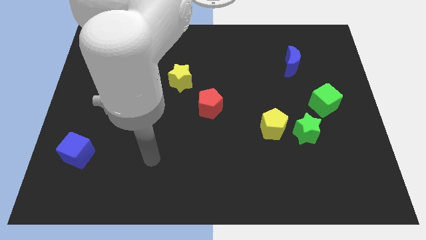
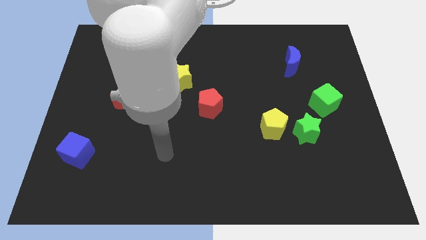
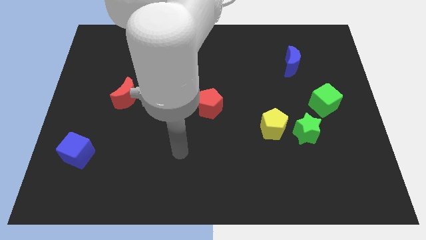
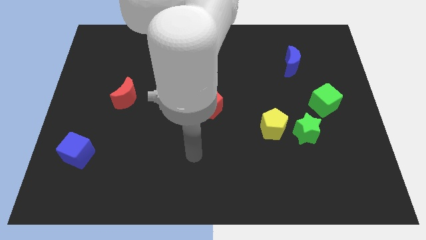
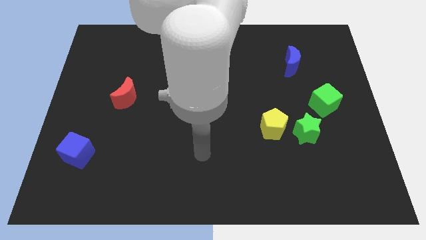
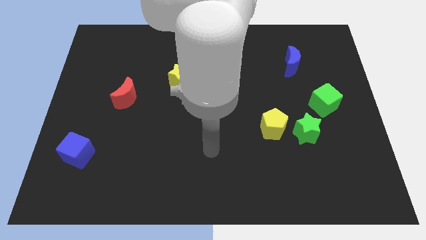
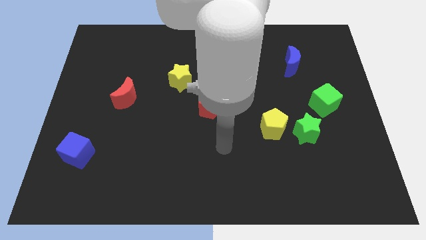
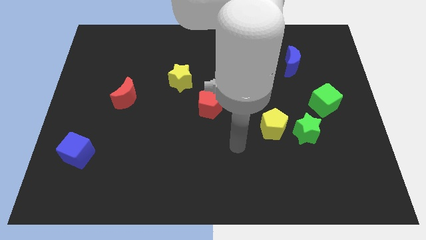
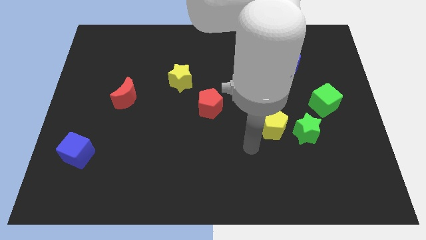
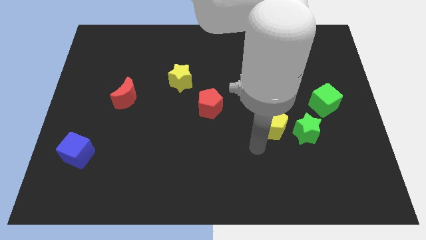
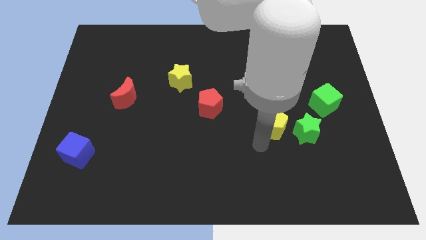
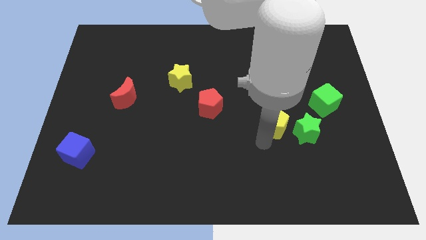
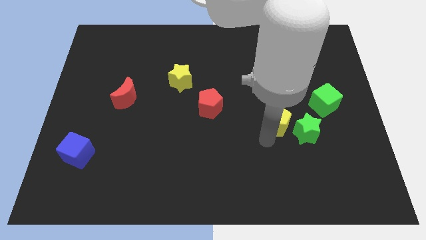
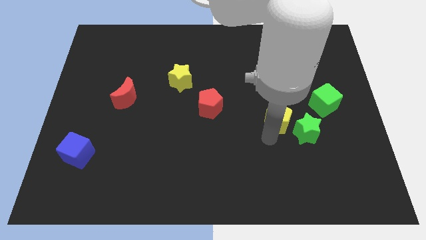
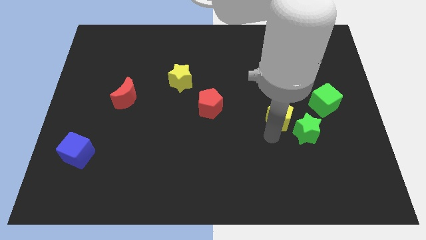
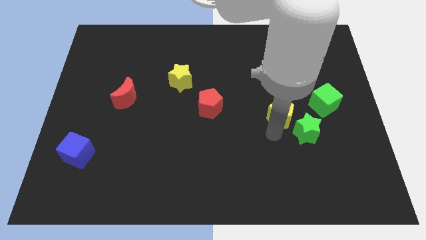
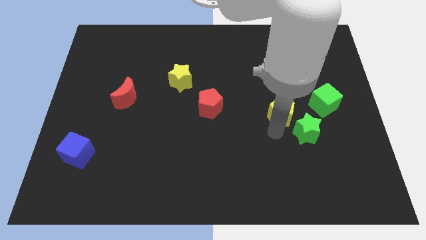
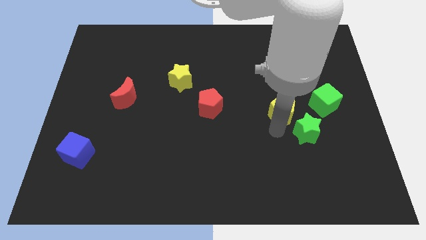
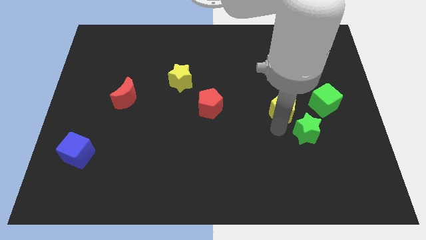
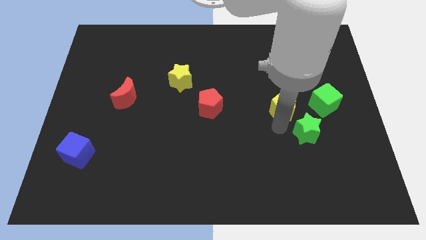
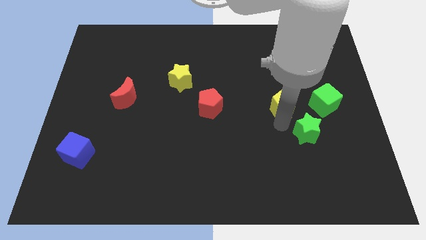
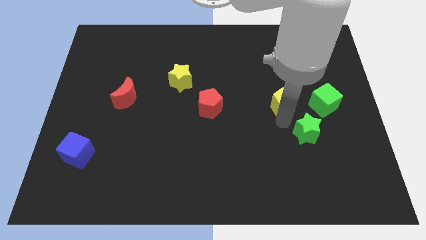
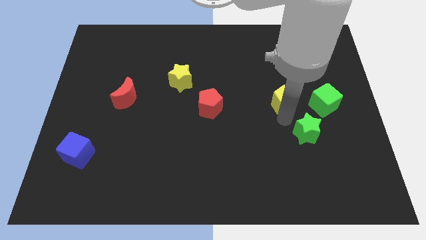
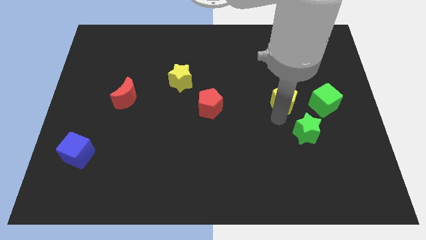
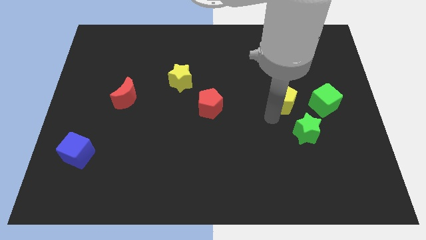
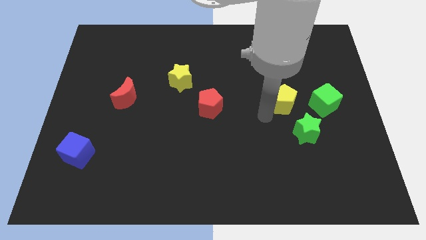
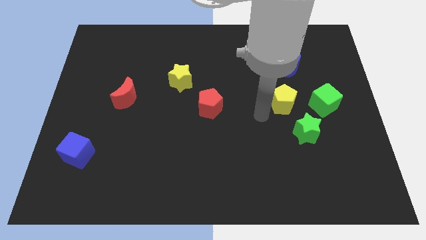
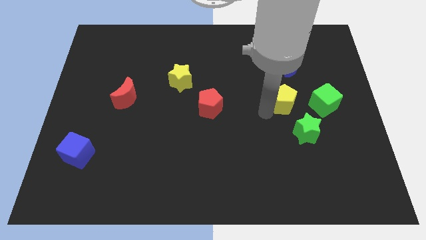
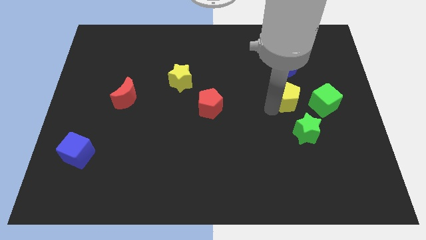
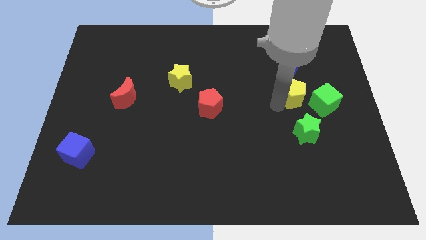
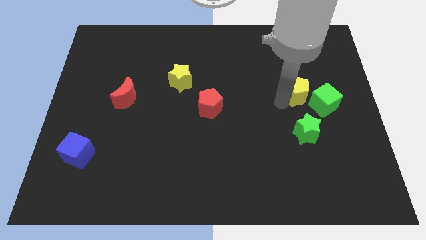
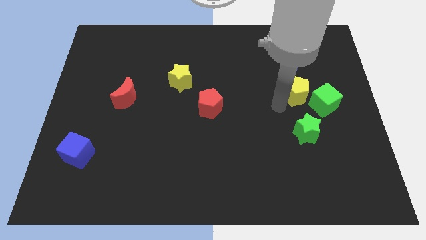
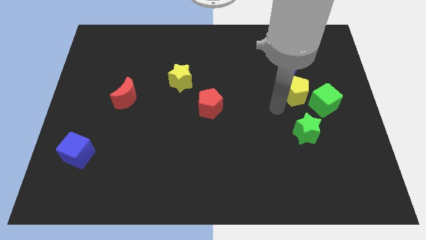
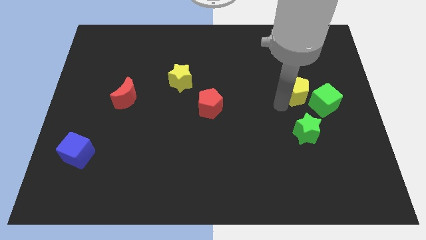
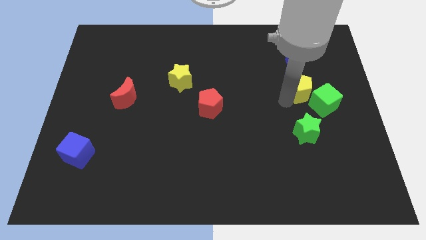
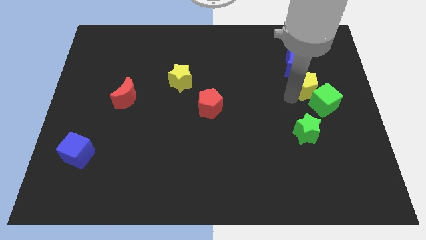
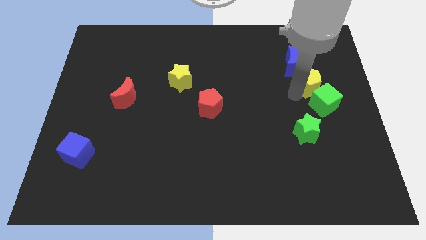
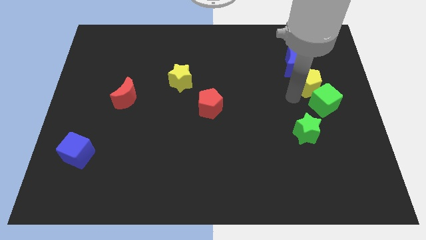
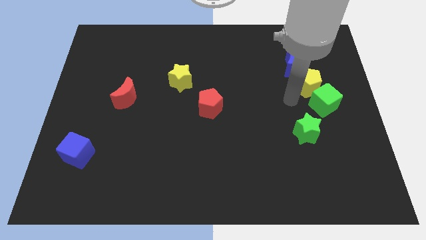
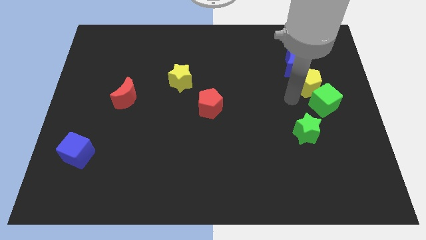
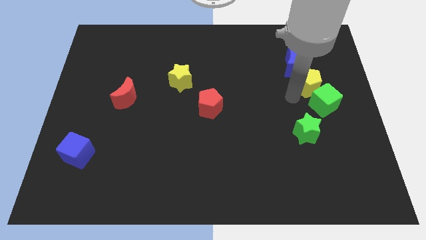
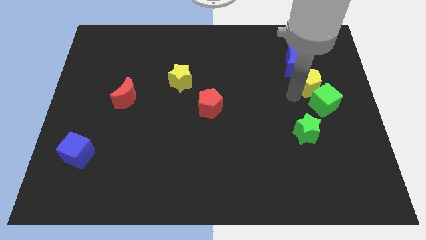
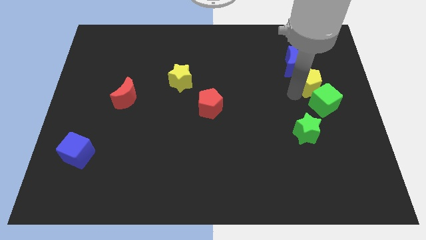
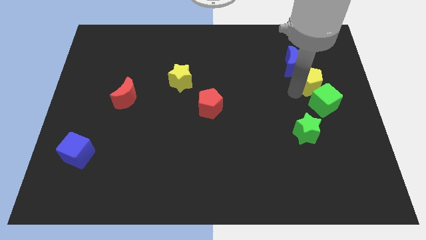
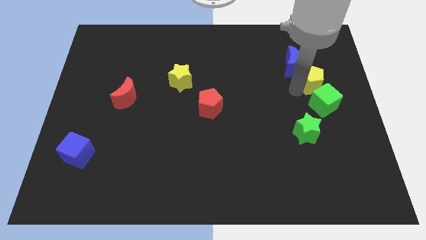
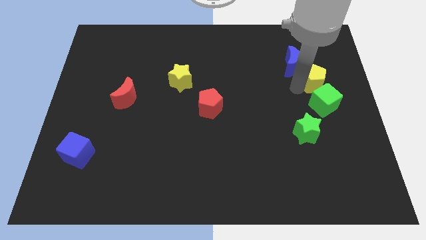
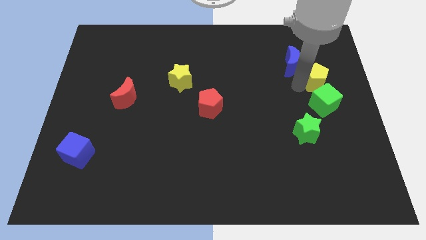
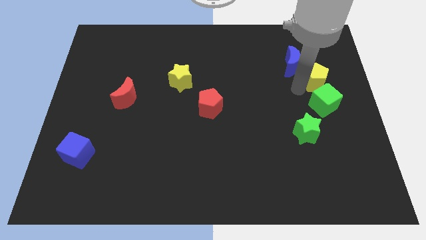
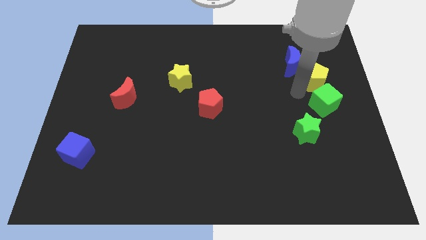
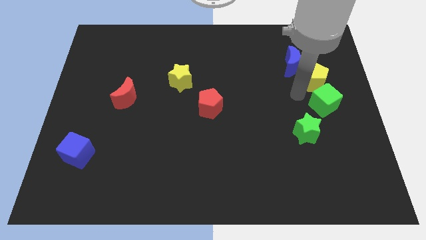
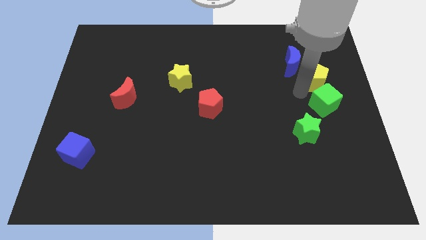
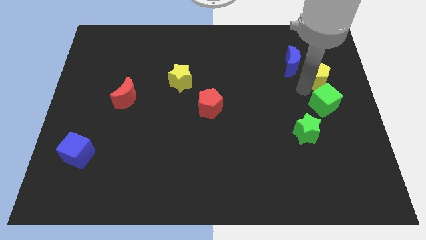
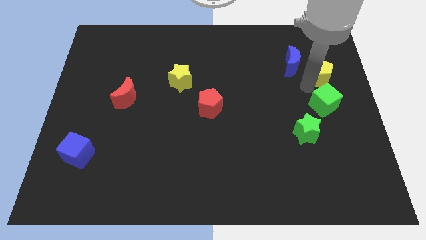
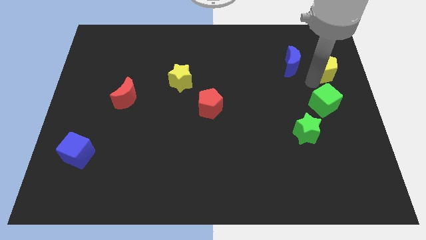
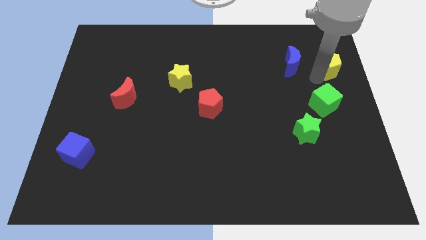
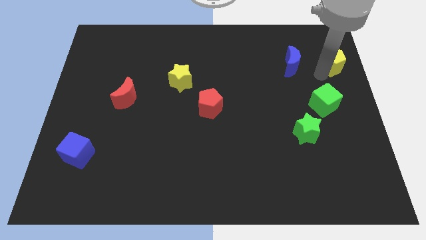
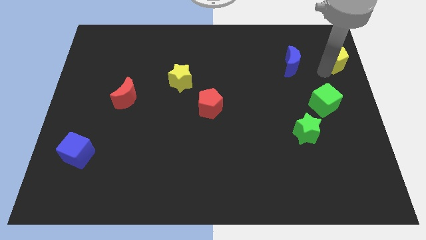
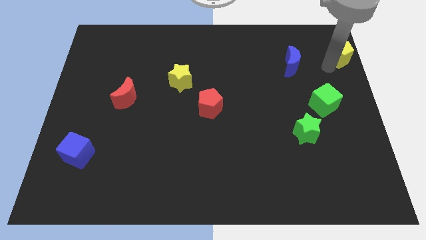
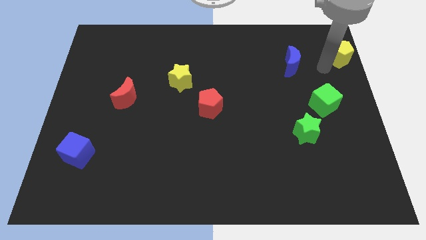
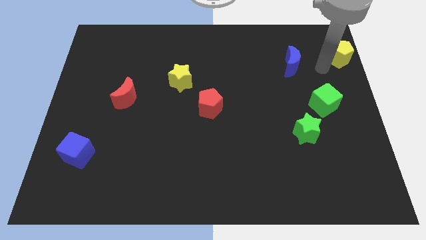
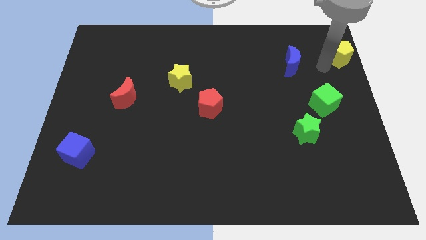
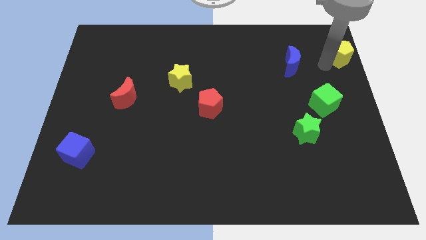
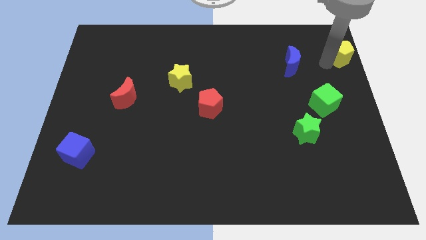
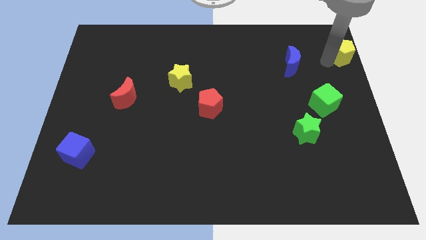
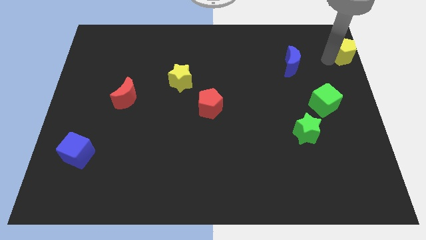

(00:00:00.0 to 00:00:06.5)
move the yellow pentagon to the top right corner
